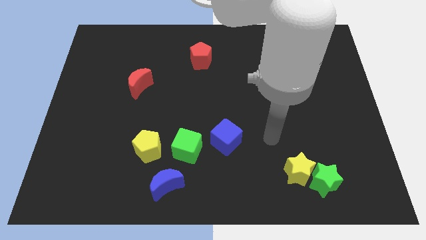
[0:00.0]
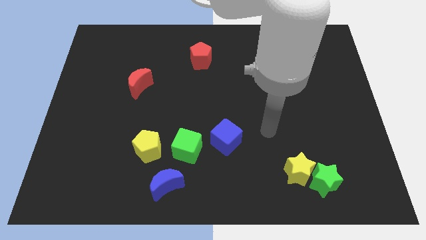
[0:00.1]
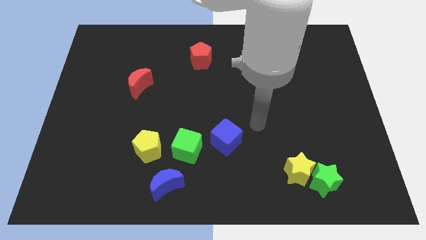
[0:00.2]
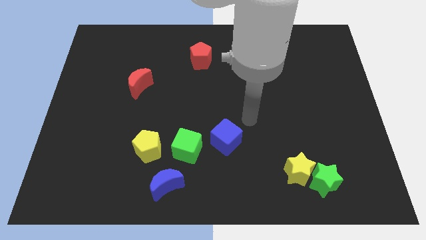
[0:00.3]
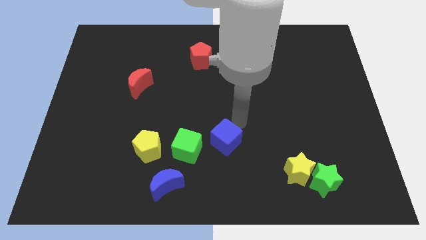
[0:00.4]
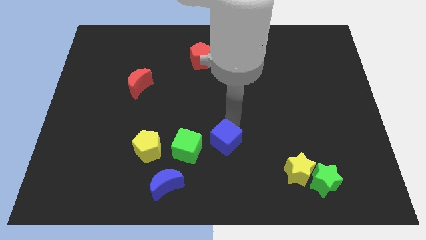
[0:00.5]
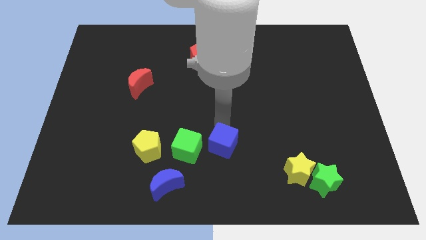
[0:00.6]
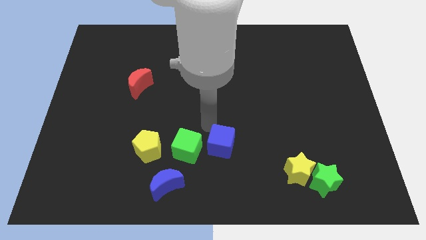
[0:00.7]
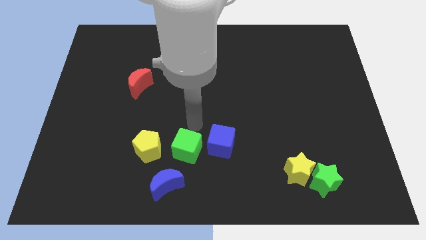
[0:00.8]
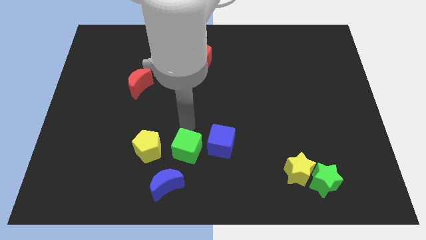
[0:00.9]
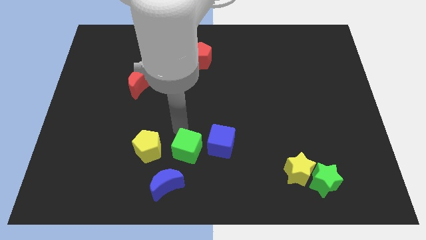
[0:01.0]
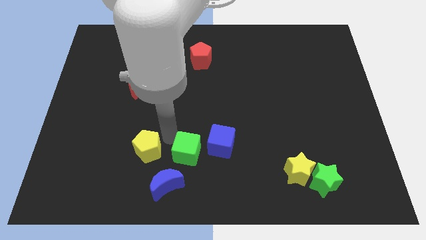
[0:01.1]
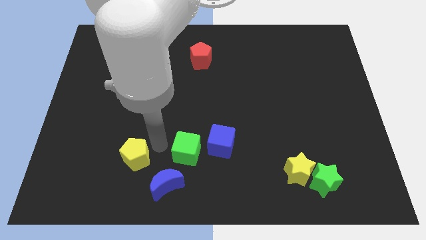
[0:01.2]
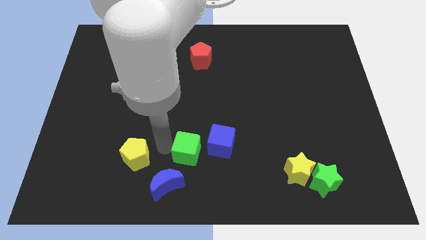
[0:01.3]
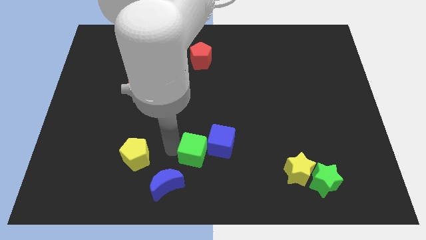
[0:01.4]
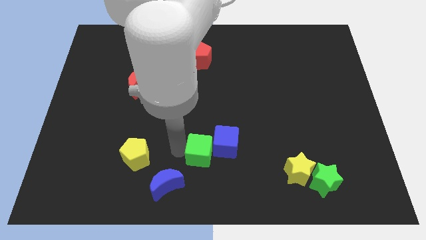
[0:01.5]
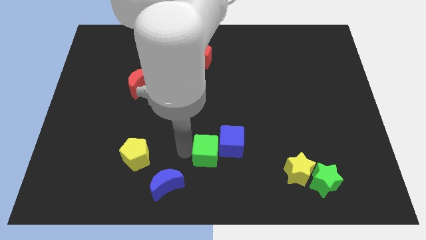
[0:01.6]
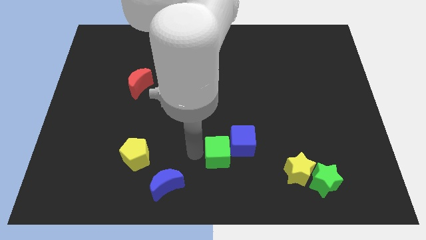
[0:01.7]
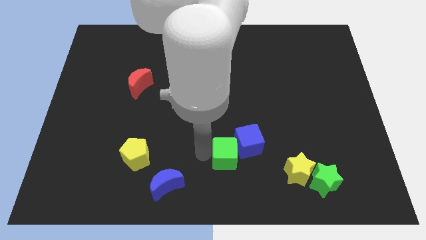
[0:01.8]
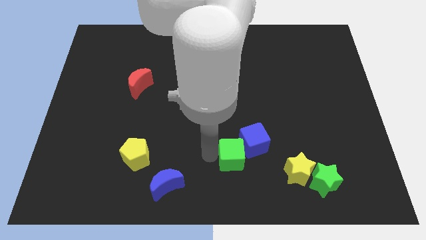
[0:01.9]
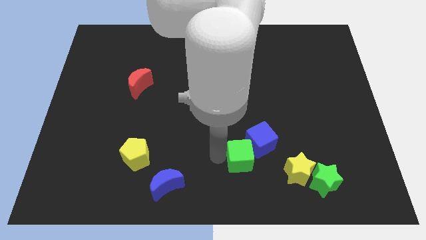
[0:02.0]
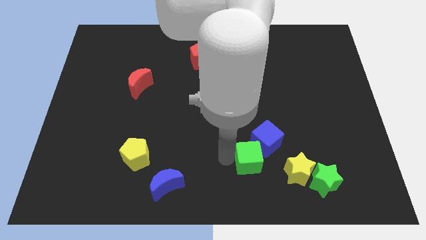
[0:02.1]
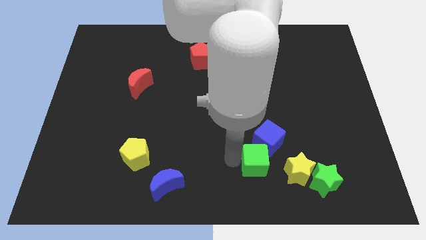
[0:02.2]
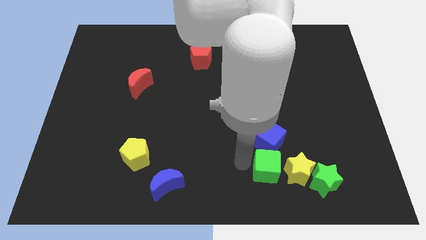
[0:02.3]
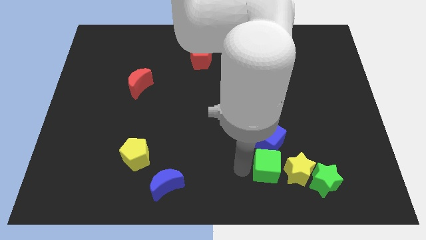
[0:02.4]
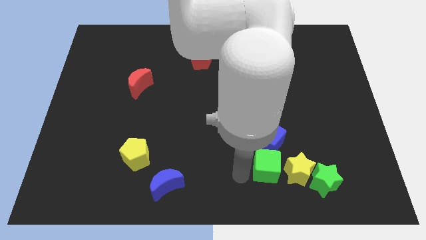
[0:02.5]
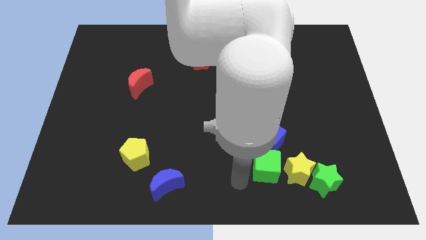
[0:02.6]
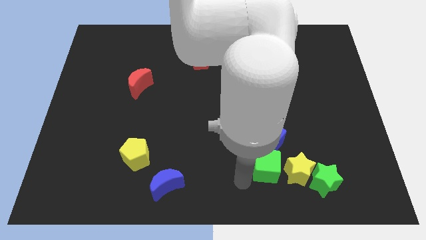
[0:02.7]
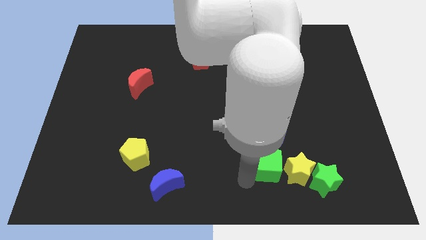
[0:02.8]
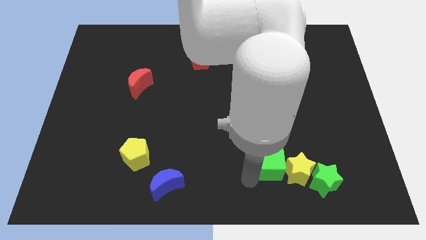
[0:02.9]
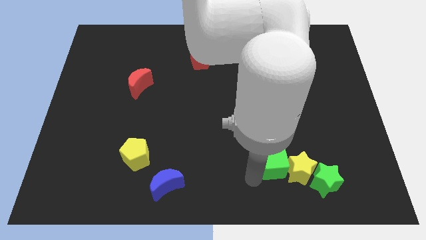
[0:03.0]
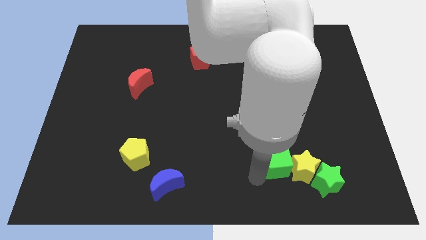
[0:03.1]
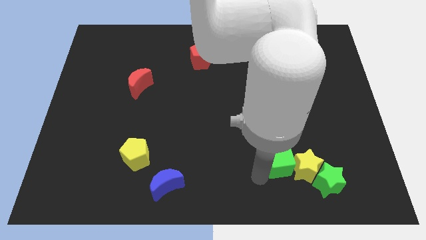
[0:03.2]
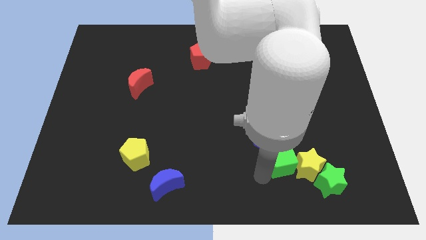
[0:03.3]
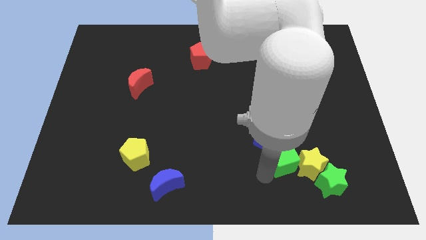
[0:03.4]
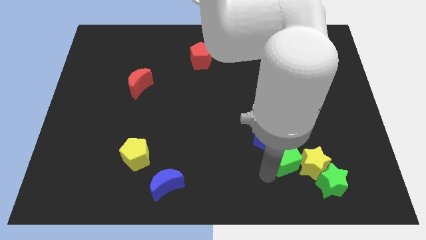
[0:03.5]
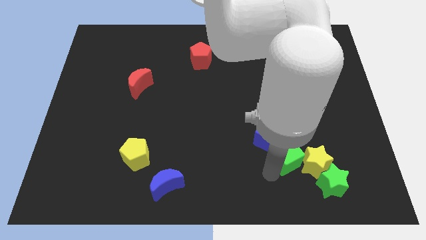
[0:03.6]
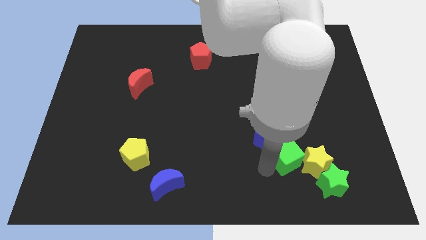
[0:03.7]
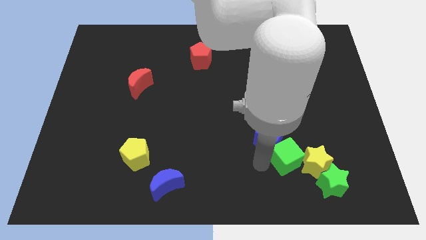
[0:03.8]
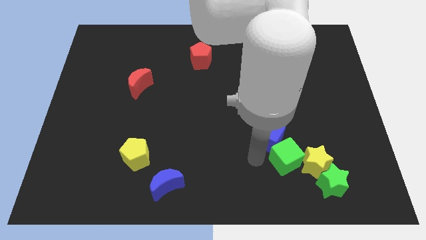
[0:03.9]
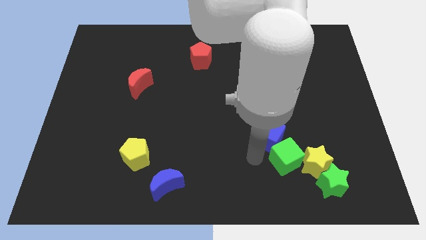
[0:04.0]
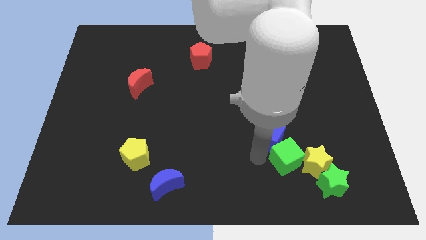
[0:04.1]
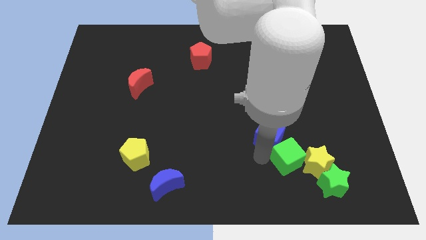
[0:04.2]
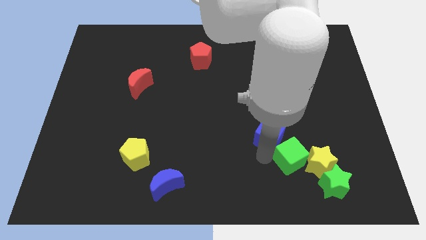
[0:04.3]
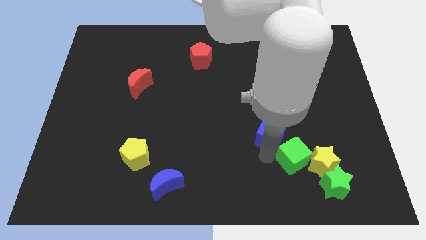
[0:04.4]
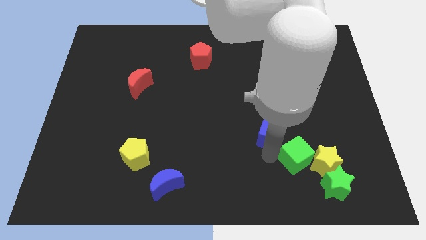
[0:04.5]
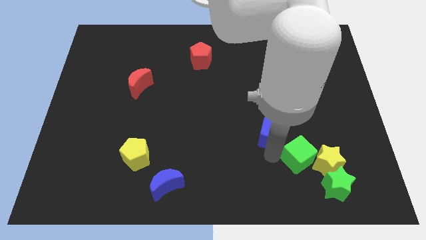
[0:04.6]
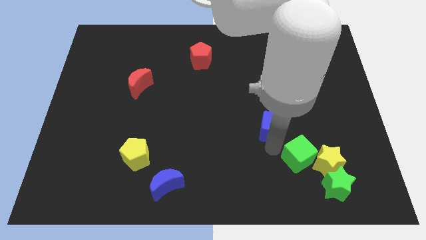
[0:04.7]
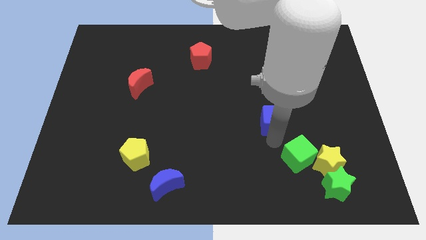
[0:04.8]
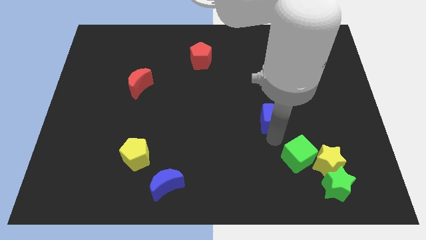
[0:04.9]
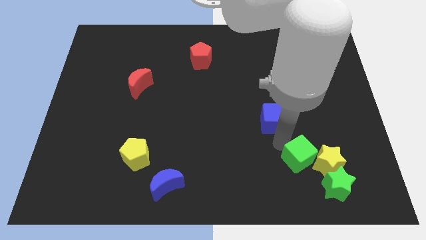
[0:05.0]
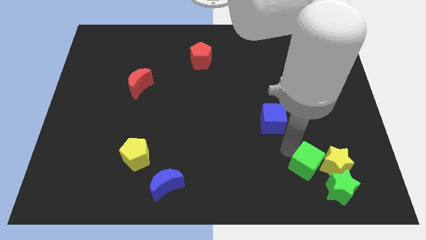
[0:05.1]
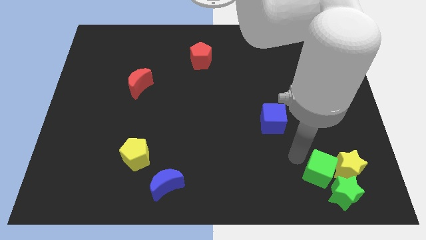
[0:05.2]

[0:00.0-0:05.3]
slide the green cube towards the green star
